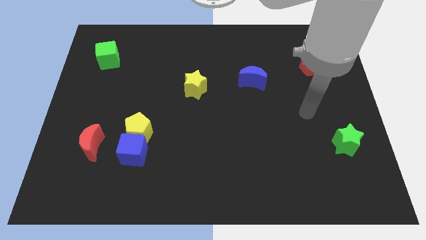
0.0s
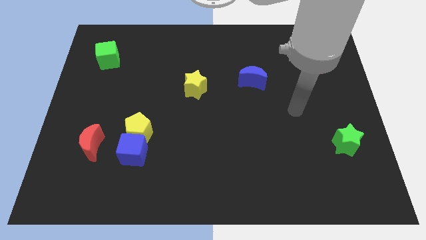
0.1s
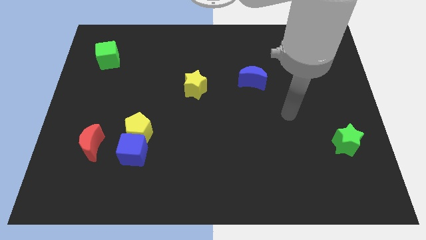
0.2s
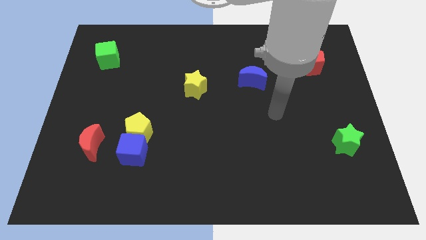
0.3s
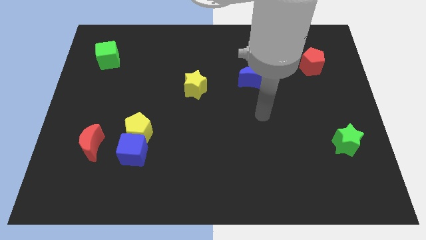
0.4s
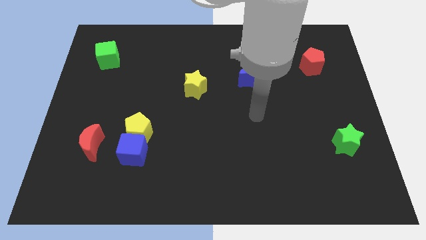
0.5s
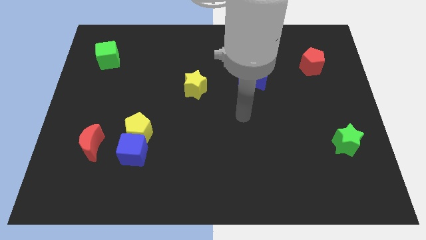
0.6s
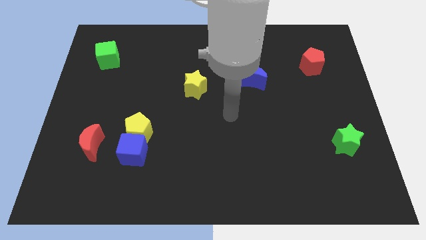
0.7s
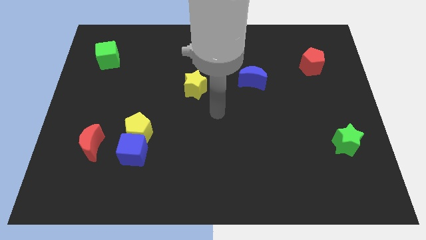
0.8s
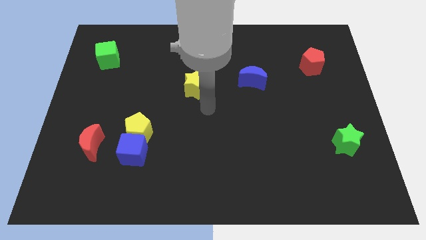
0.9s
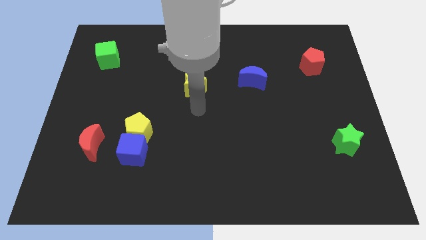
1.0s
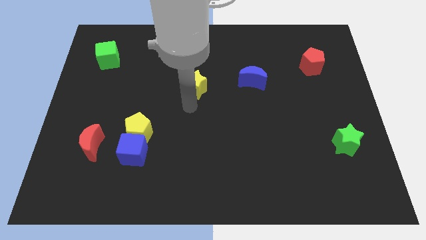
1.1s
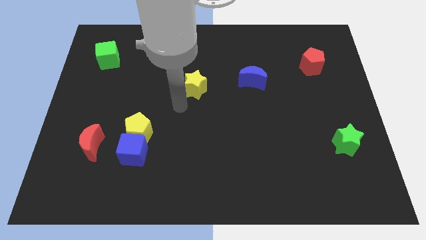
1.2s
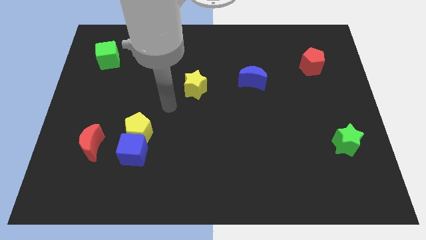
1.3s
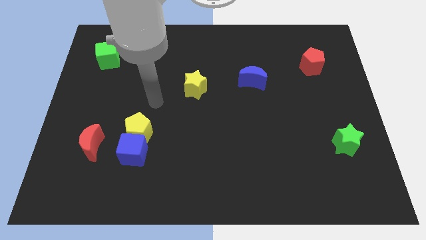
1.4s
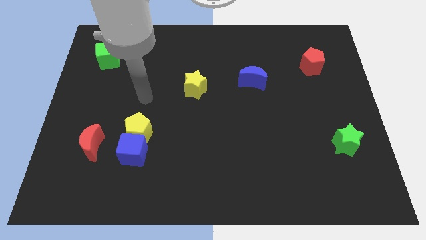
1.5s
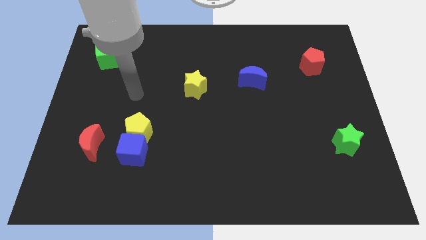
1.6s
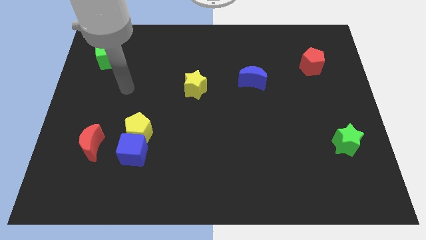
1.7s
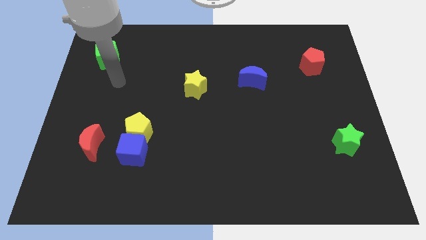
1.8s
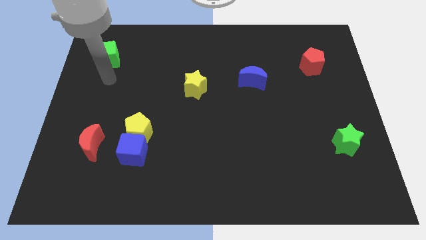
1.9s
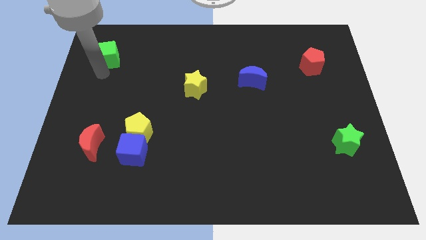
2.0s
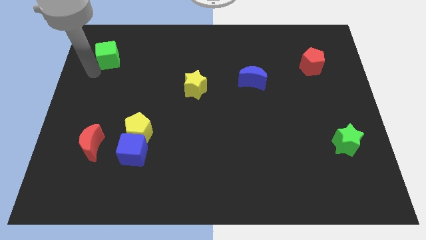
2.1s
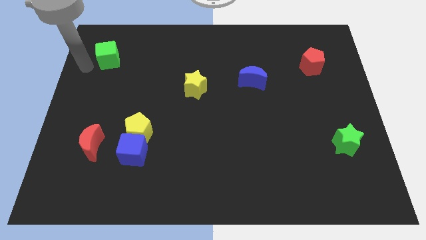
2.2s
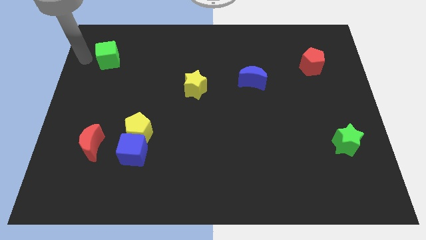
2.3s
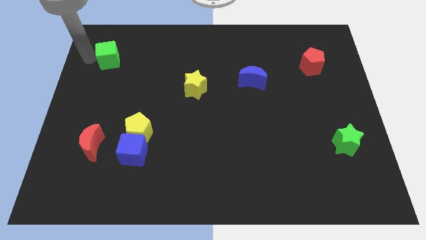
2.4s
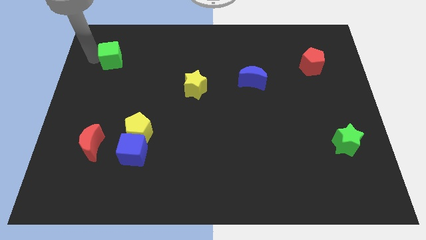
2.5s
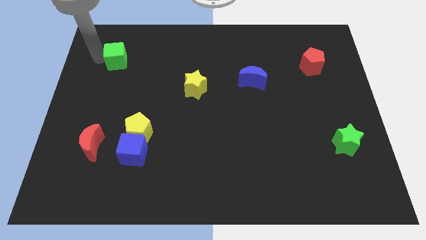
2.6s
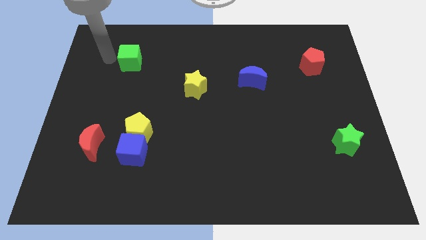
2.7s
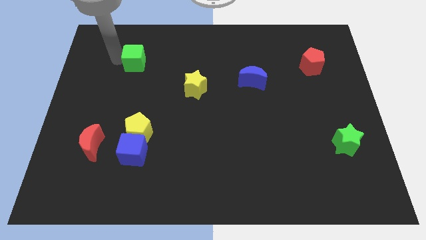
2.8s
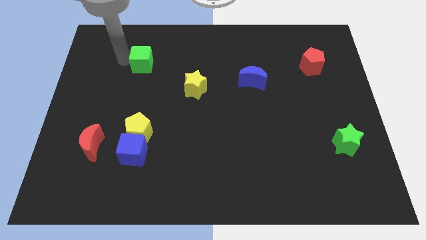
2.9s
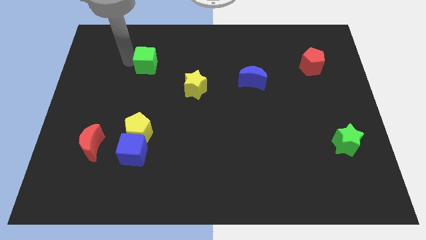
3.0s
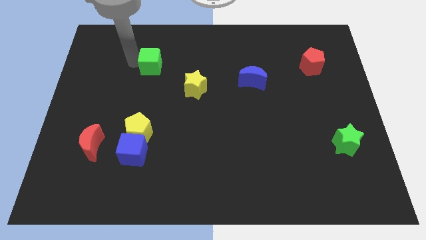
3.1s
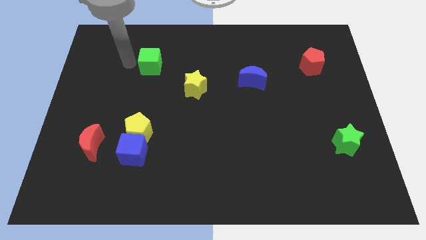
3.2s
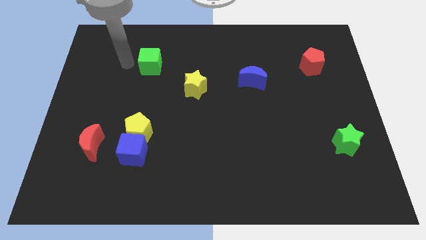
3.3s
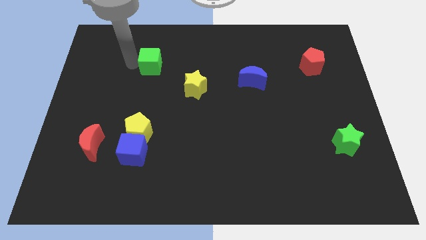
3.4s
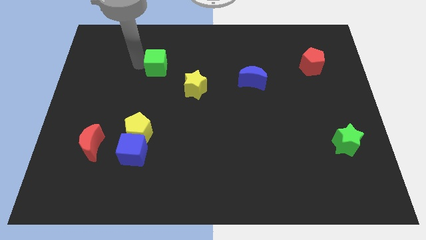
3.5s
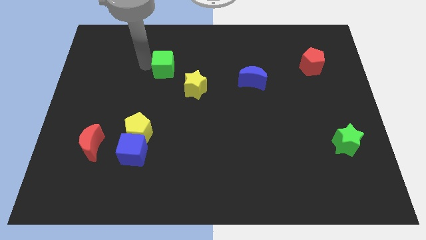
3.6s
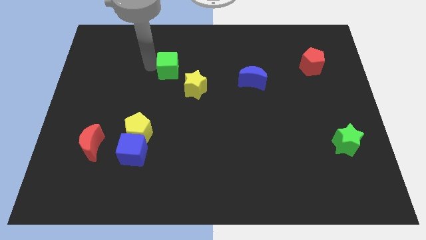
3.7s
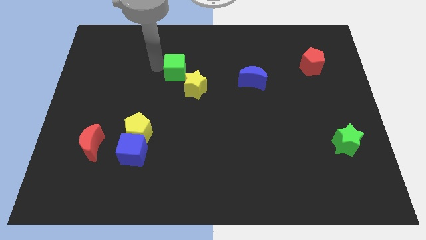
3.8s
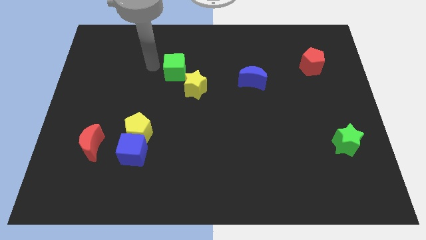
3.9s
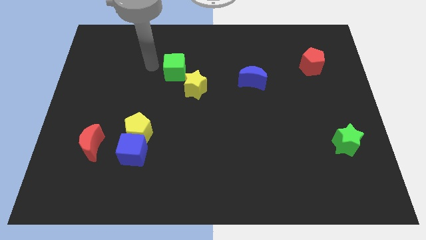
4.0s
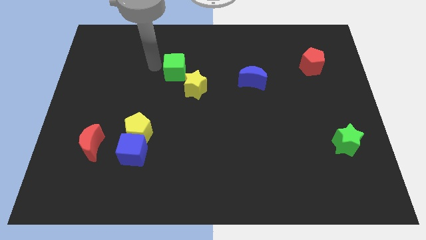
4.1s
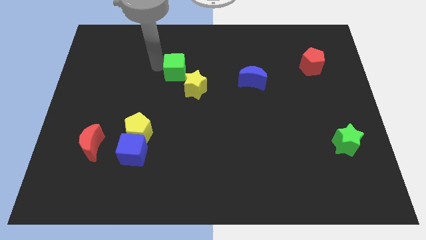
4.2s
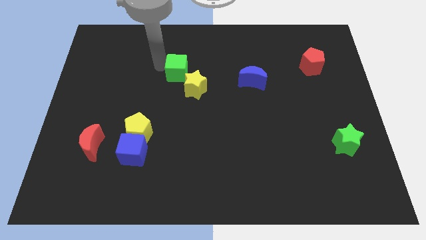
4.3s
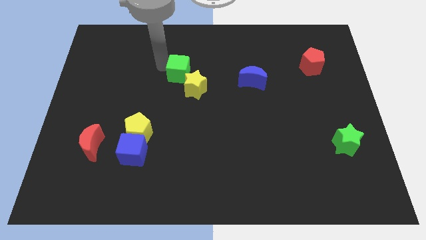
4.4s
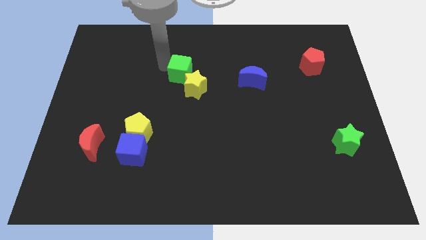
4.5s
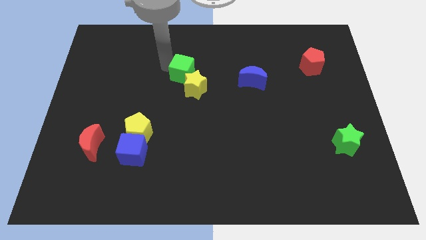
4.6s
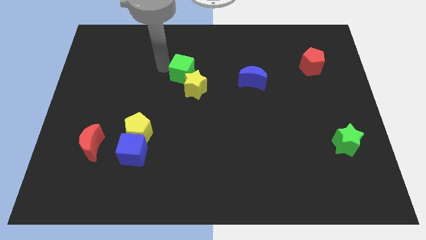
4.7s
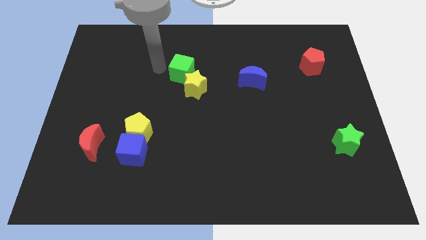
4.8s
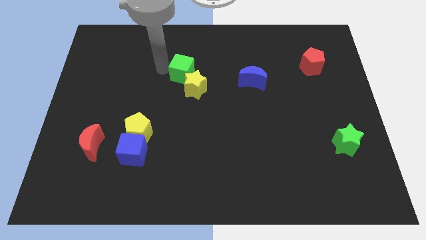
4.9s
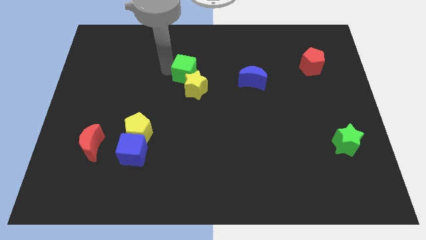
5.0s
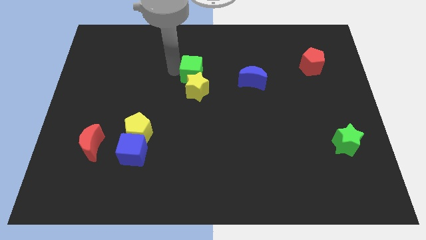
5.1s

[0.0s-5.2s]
push the green cube to the left of the blue moon

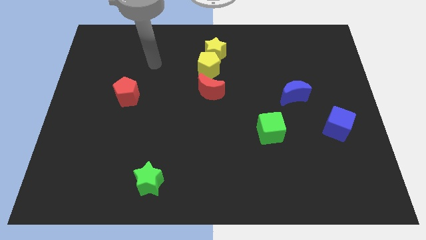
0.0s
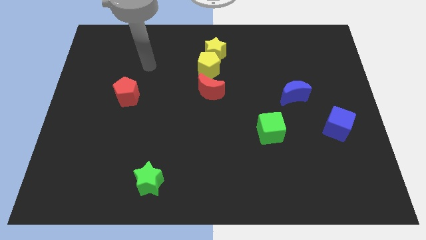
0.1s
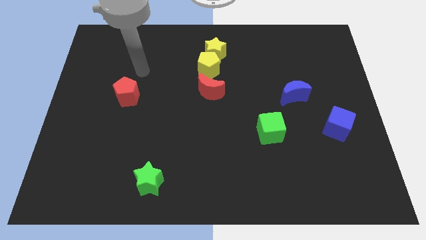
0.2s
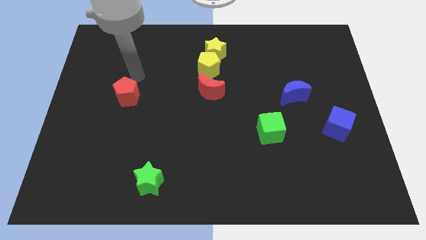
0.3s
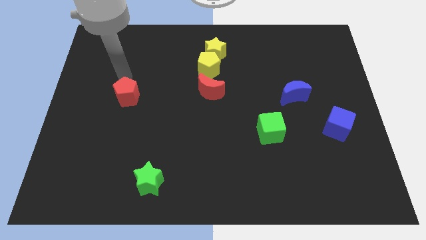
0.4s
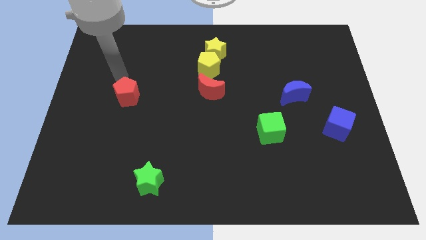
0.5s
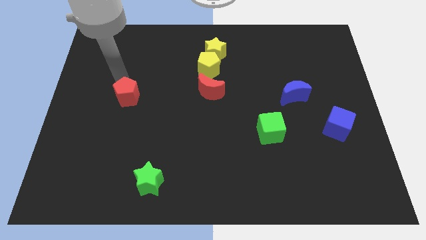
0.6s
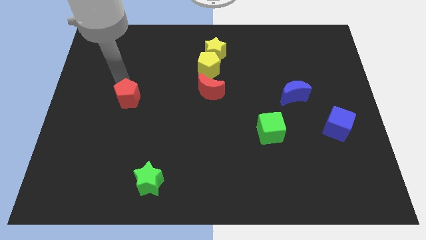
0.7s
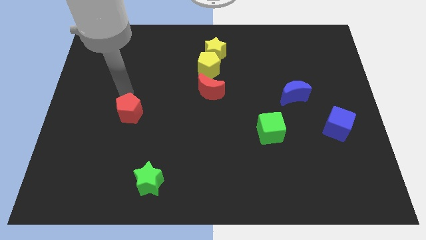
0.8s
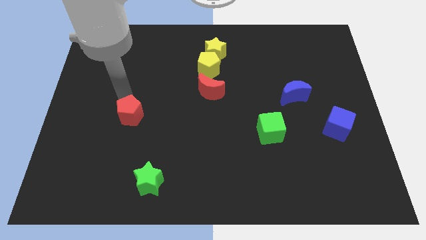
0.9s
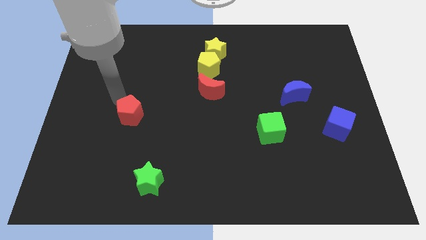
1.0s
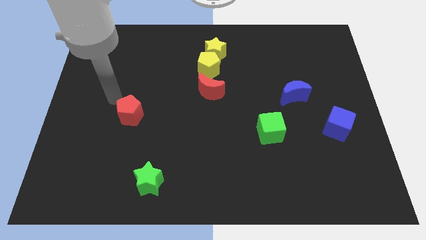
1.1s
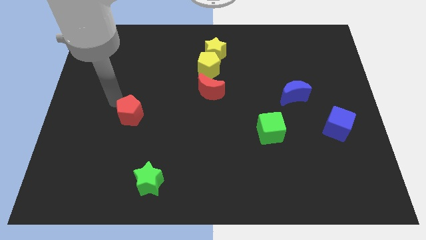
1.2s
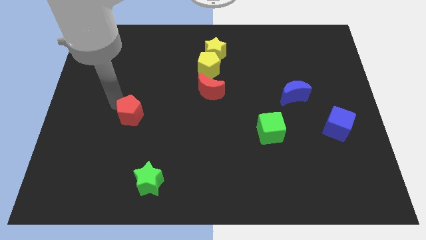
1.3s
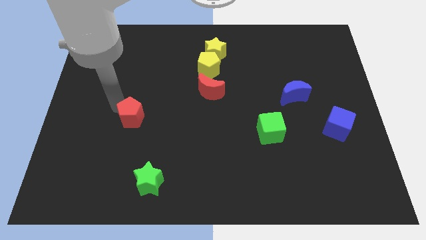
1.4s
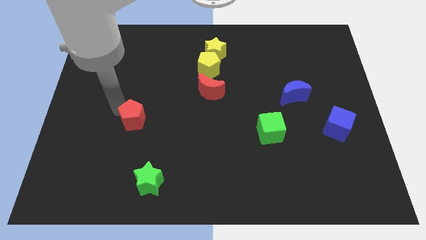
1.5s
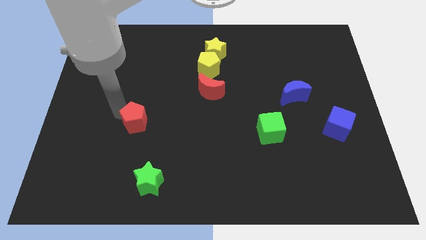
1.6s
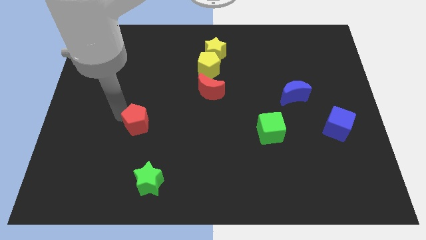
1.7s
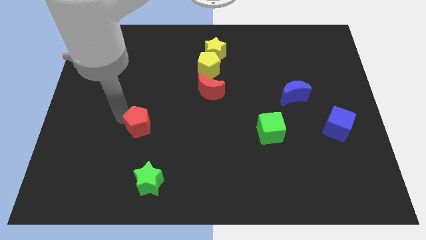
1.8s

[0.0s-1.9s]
move the red pentagon above the green star
